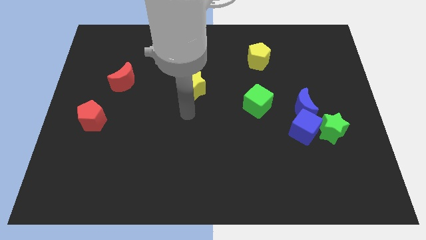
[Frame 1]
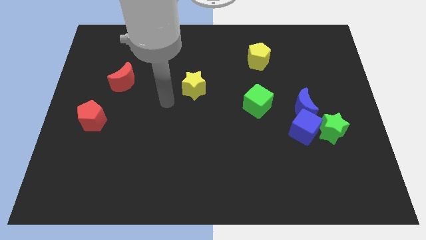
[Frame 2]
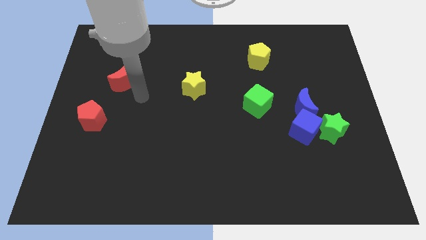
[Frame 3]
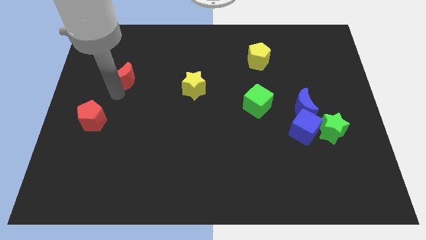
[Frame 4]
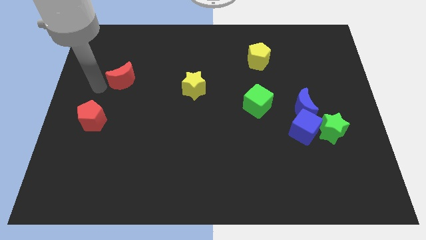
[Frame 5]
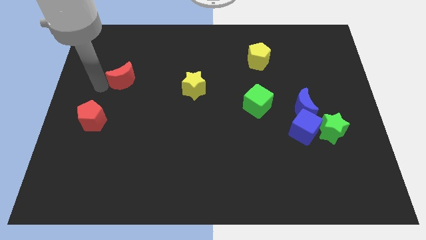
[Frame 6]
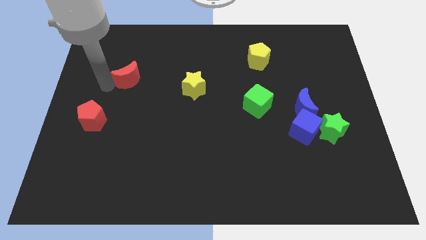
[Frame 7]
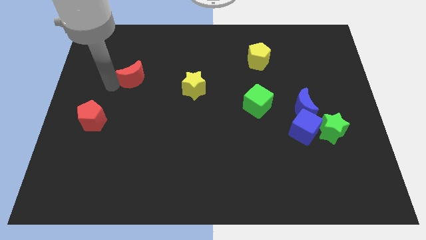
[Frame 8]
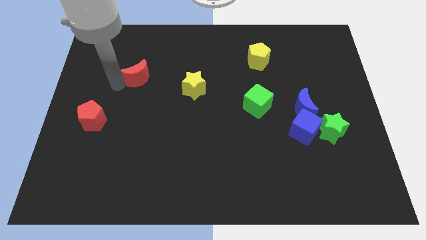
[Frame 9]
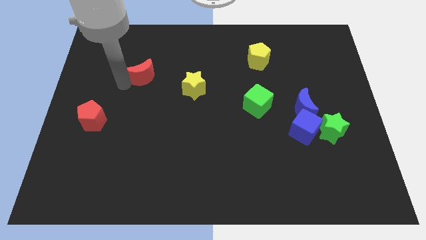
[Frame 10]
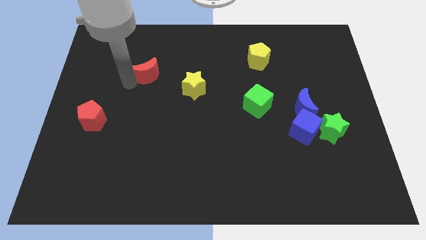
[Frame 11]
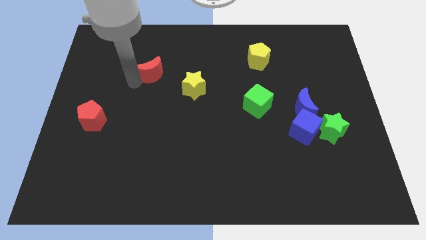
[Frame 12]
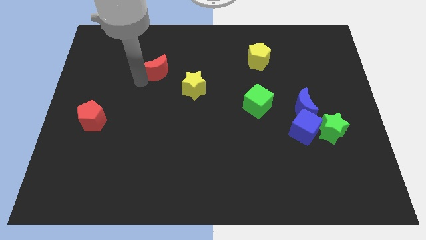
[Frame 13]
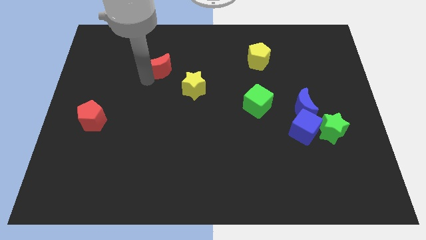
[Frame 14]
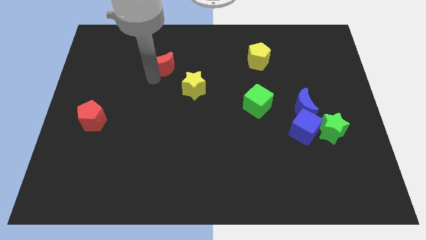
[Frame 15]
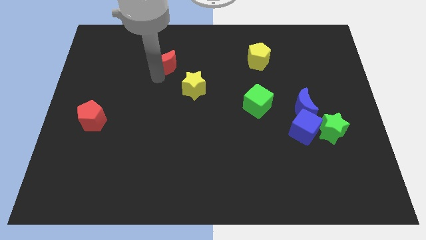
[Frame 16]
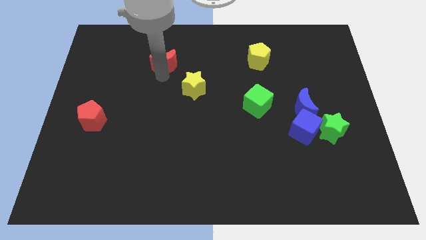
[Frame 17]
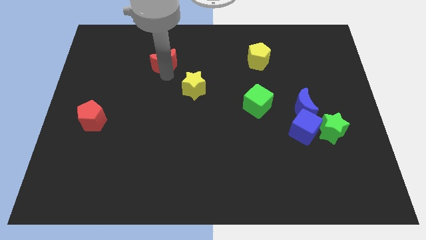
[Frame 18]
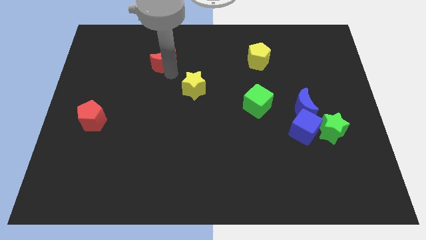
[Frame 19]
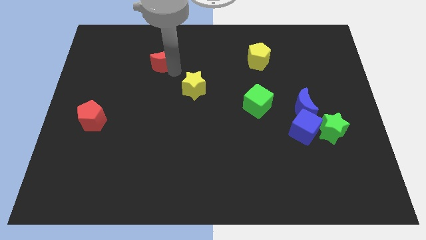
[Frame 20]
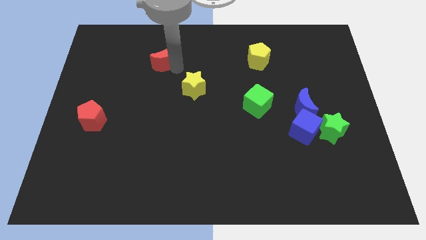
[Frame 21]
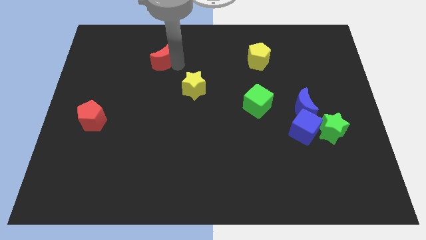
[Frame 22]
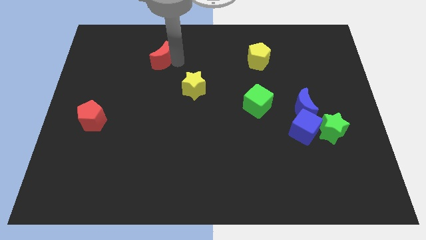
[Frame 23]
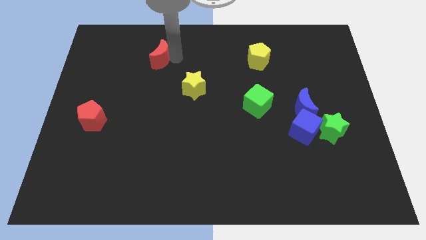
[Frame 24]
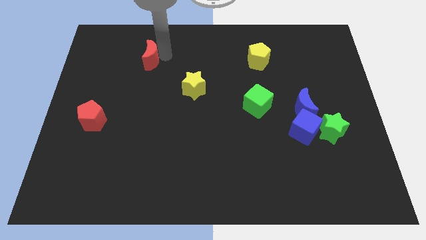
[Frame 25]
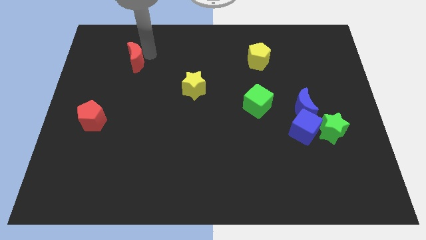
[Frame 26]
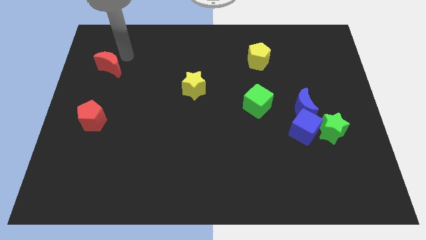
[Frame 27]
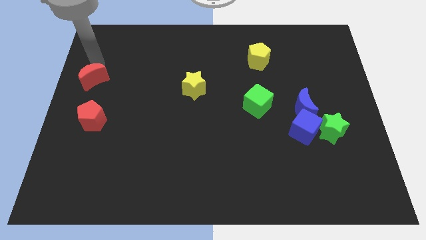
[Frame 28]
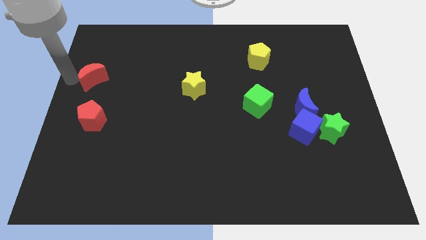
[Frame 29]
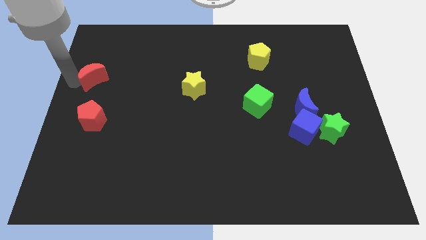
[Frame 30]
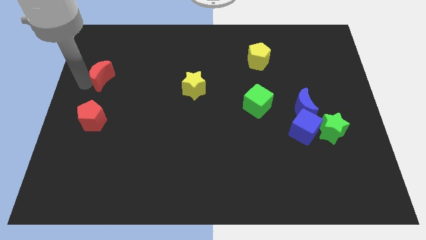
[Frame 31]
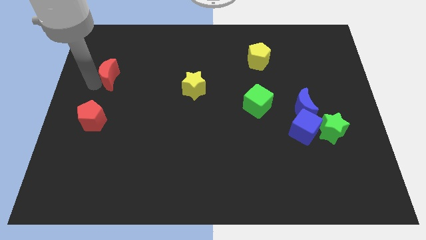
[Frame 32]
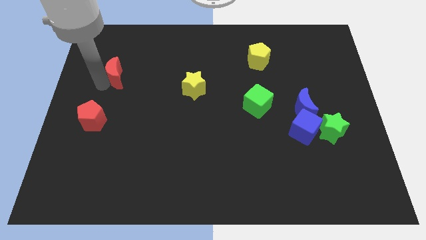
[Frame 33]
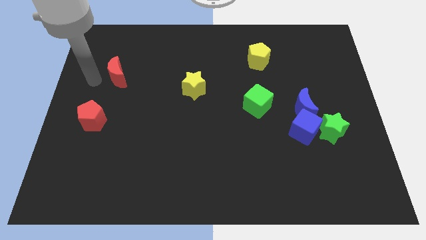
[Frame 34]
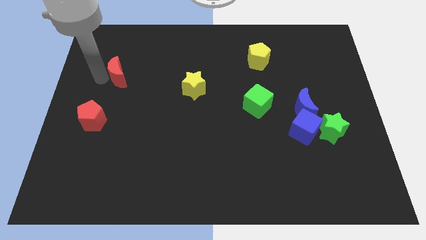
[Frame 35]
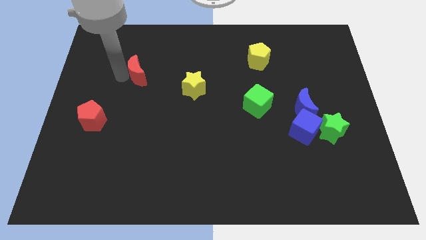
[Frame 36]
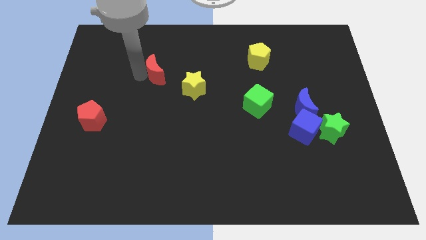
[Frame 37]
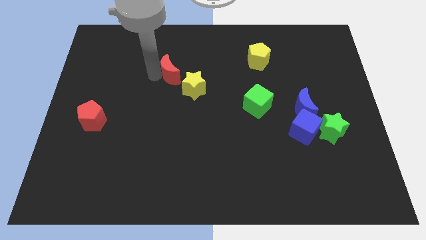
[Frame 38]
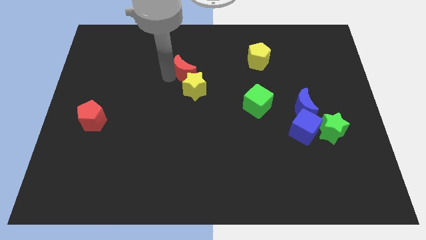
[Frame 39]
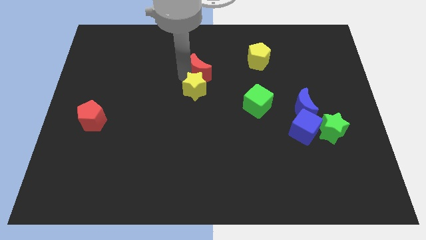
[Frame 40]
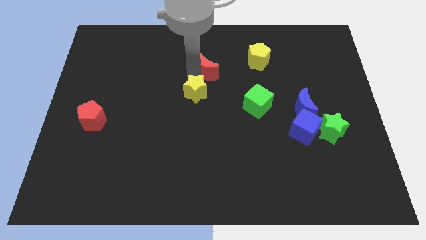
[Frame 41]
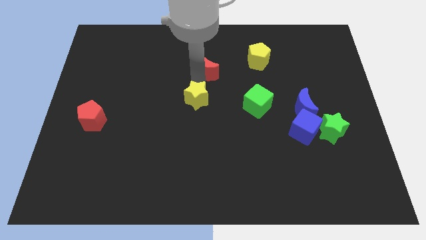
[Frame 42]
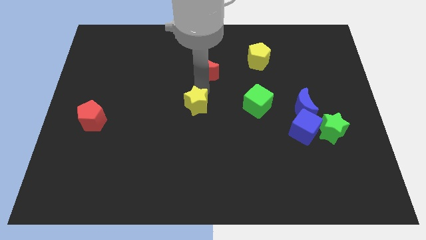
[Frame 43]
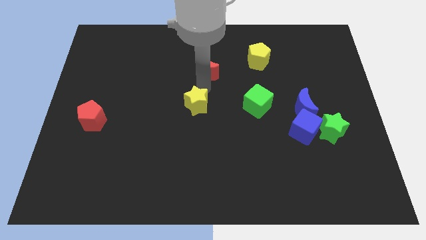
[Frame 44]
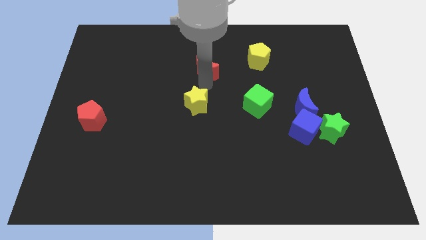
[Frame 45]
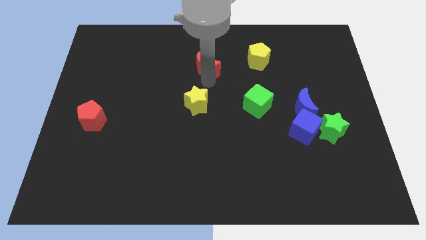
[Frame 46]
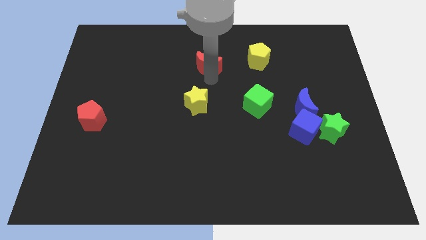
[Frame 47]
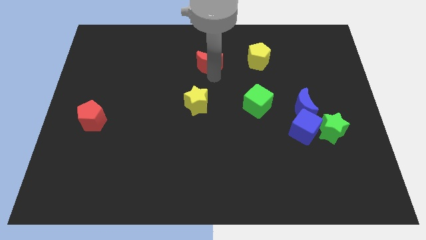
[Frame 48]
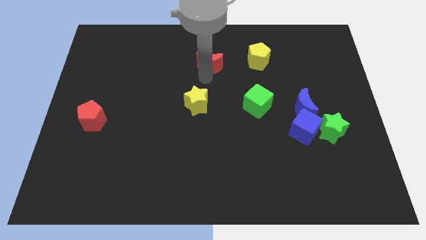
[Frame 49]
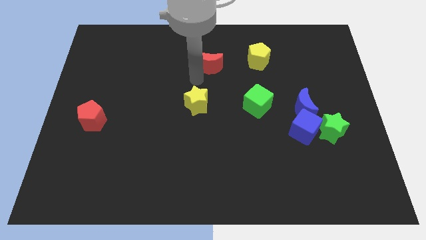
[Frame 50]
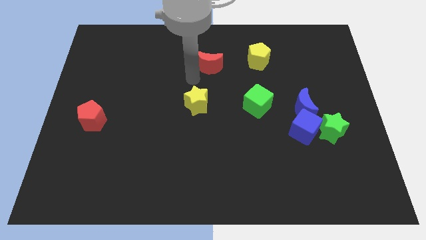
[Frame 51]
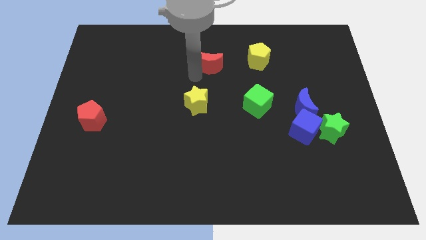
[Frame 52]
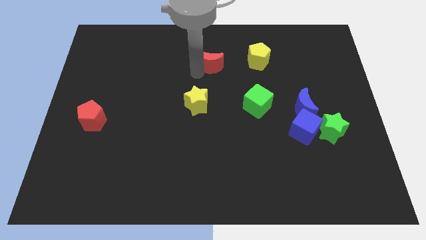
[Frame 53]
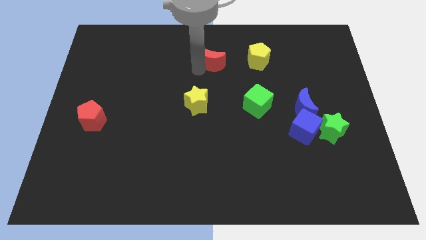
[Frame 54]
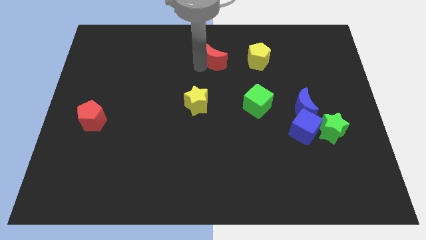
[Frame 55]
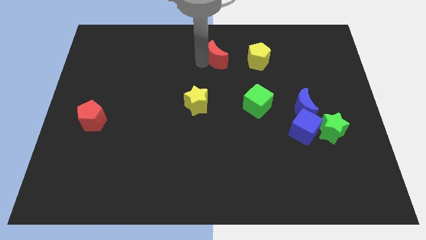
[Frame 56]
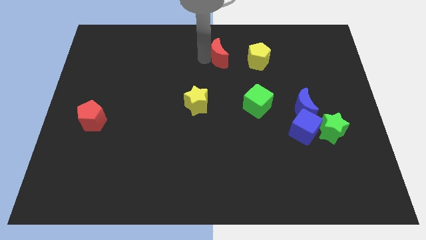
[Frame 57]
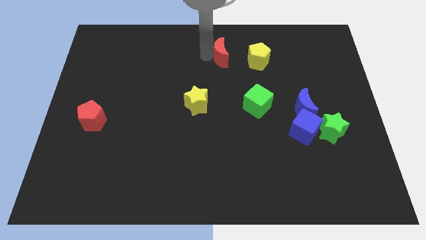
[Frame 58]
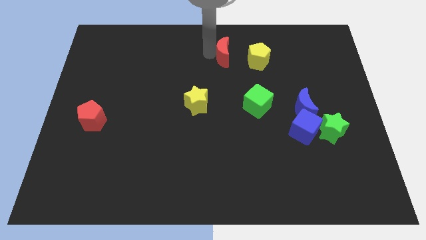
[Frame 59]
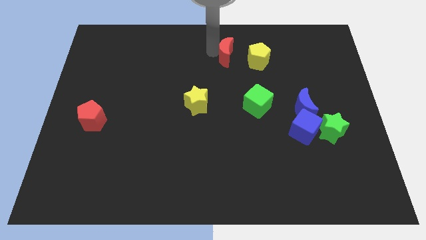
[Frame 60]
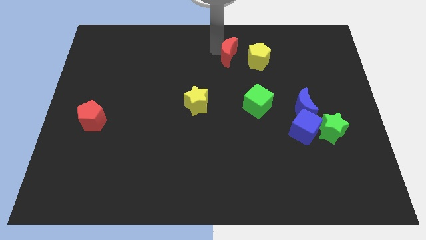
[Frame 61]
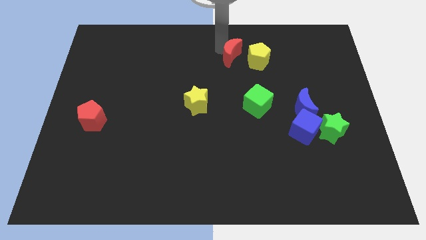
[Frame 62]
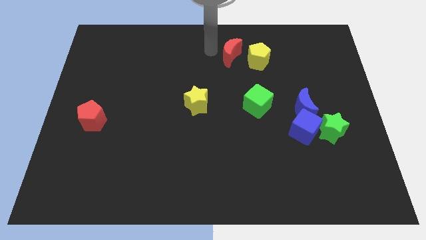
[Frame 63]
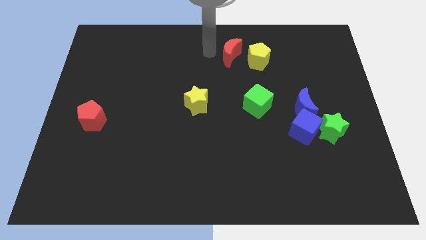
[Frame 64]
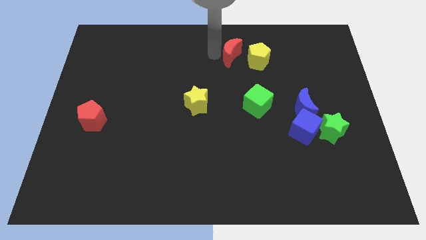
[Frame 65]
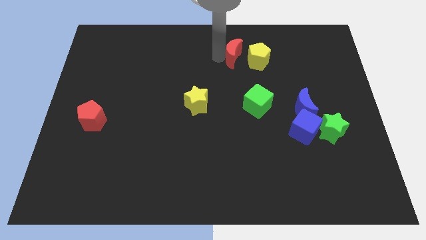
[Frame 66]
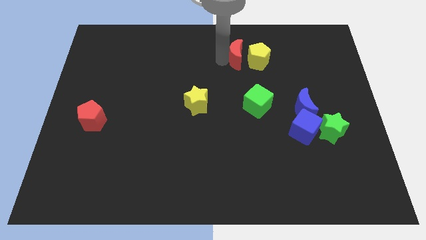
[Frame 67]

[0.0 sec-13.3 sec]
put the red moon next to the yellow pentagon

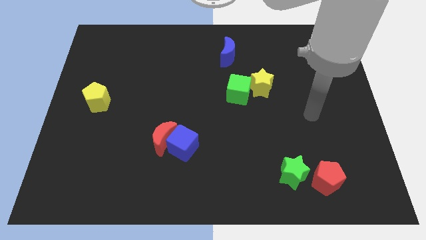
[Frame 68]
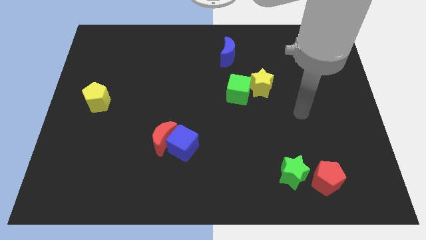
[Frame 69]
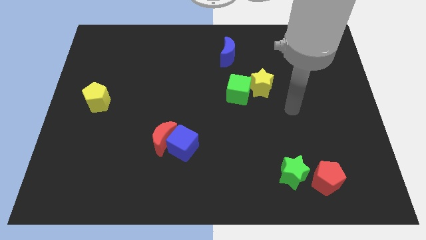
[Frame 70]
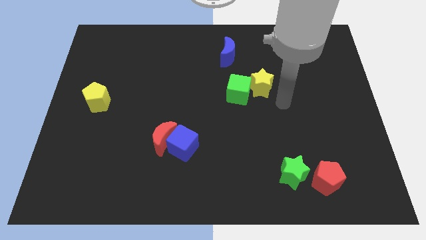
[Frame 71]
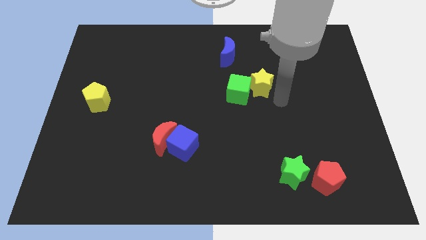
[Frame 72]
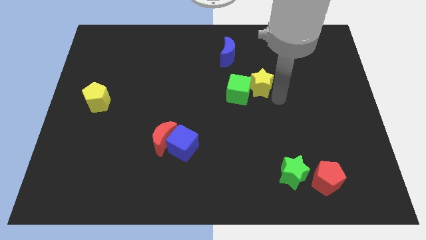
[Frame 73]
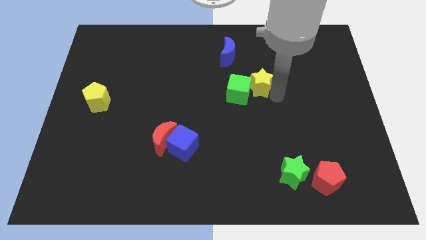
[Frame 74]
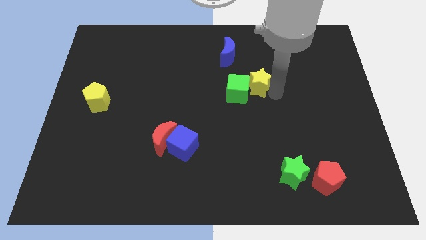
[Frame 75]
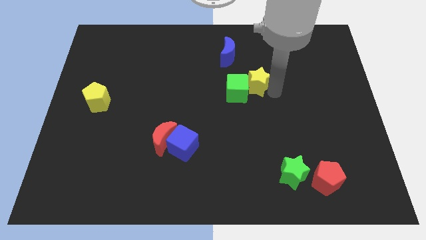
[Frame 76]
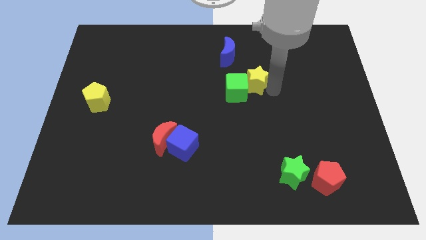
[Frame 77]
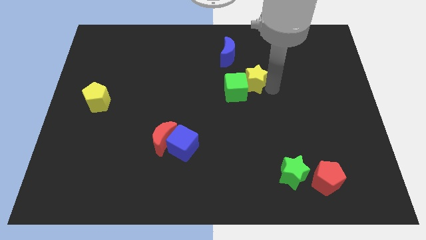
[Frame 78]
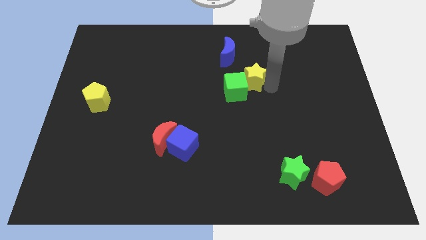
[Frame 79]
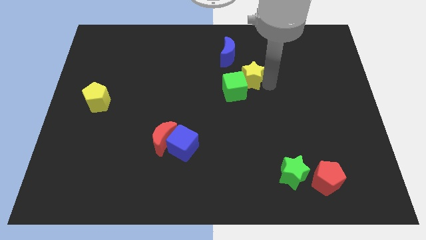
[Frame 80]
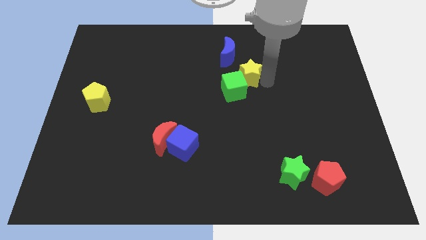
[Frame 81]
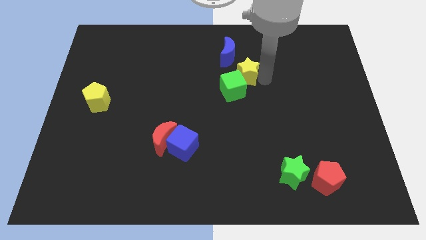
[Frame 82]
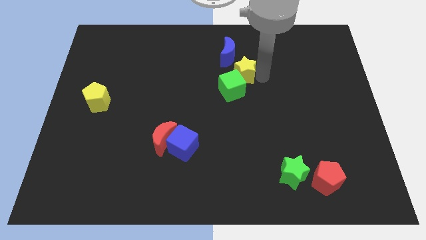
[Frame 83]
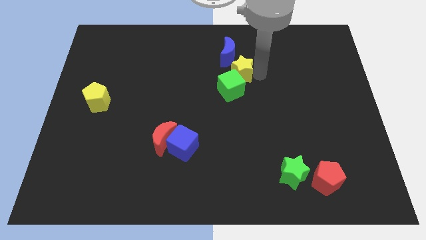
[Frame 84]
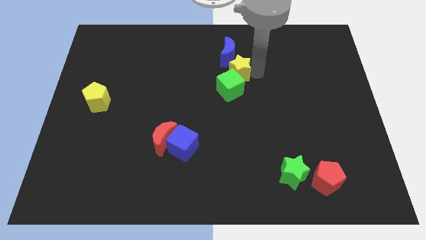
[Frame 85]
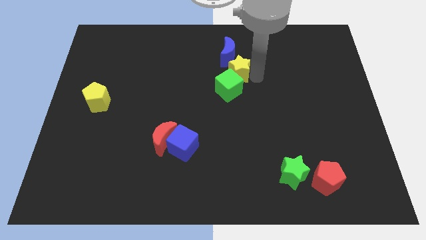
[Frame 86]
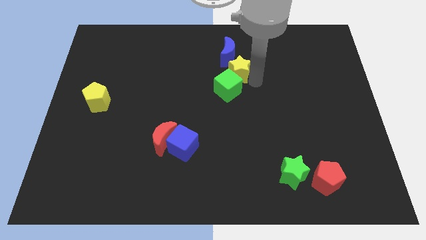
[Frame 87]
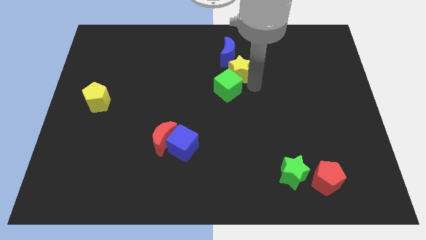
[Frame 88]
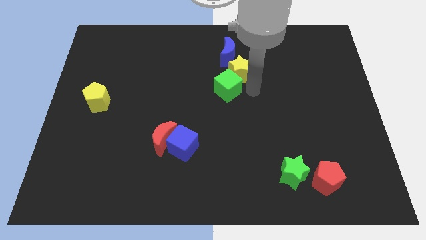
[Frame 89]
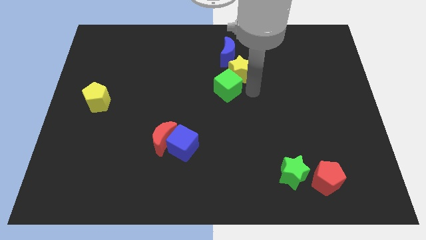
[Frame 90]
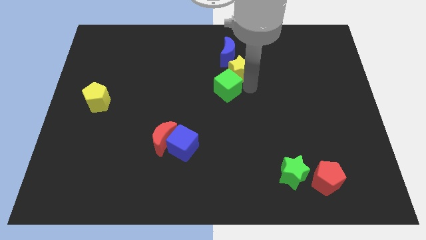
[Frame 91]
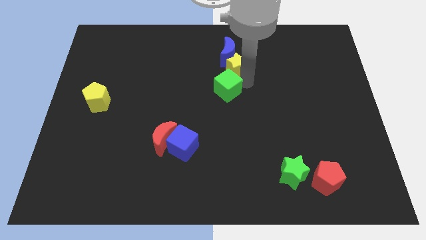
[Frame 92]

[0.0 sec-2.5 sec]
push the yellow star close to the blue moon
